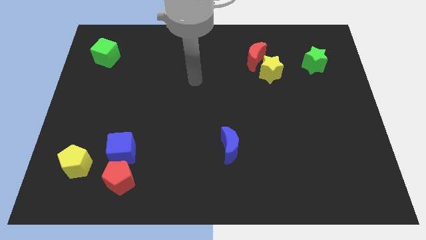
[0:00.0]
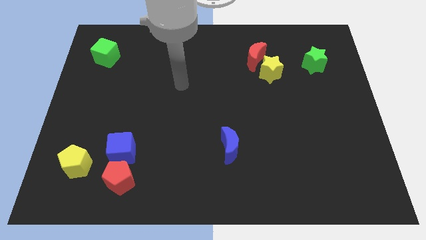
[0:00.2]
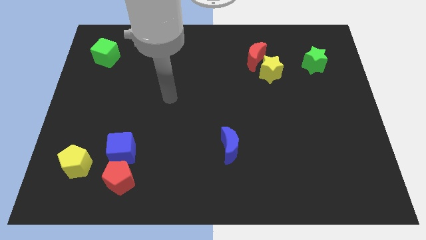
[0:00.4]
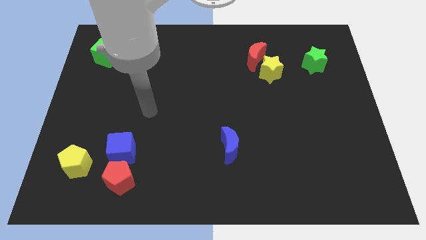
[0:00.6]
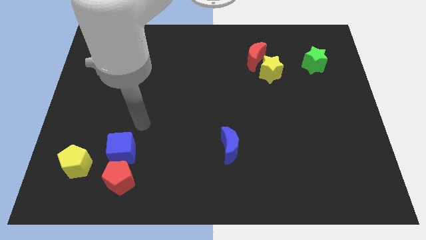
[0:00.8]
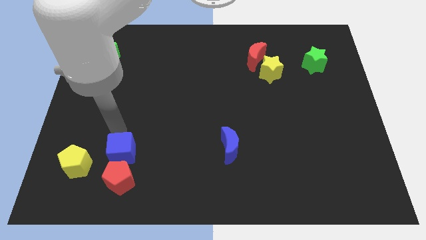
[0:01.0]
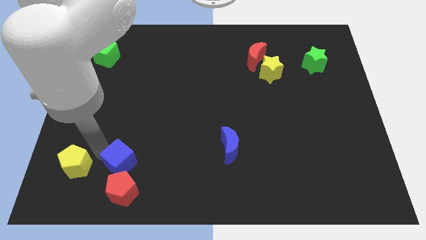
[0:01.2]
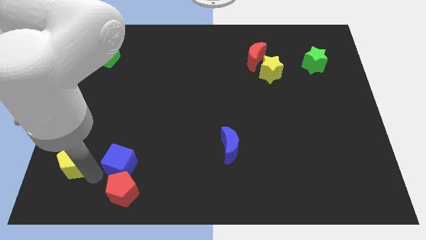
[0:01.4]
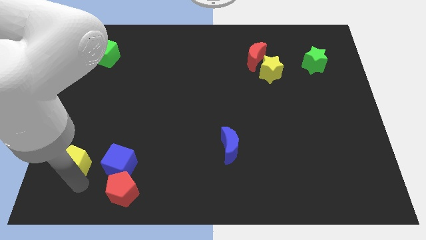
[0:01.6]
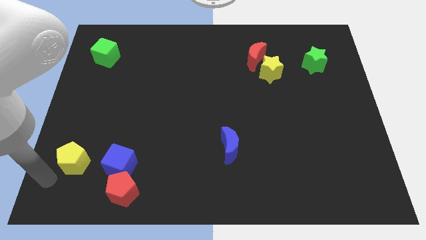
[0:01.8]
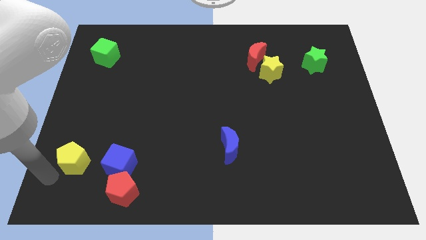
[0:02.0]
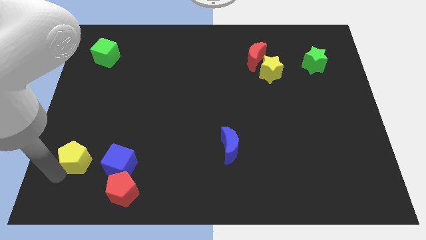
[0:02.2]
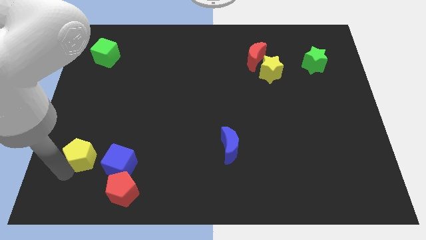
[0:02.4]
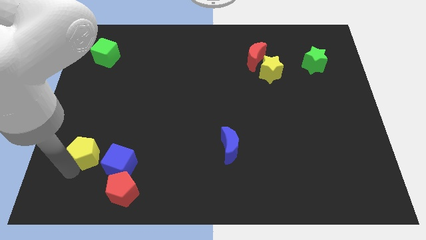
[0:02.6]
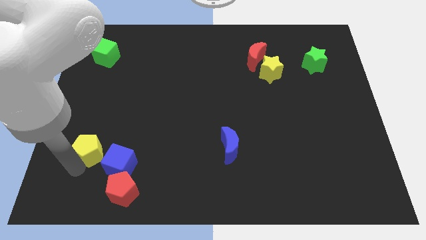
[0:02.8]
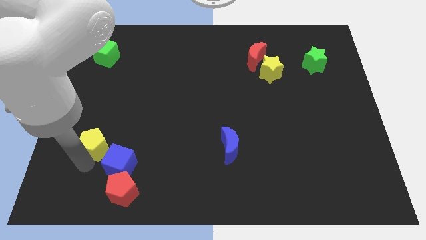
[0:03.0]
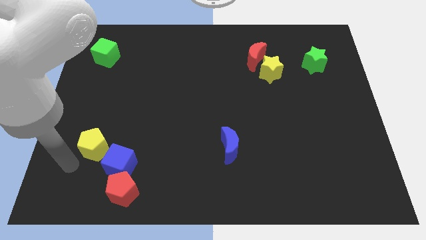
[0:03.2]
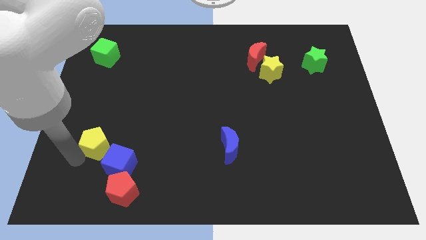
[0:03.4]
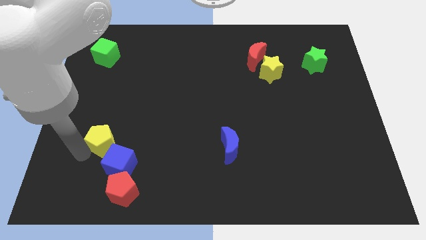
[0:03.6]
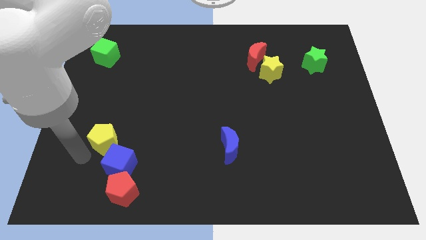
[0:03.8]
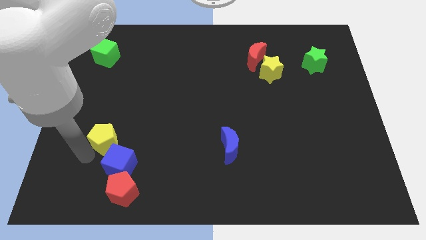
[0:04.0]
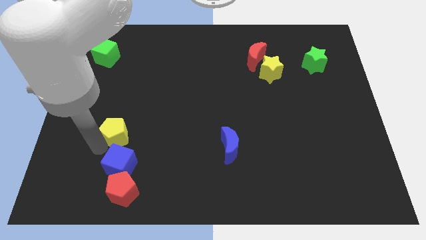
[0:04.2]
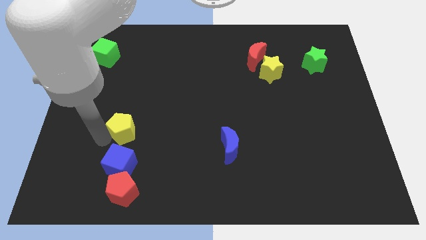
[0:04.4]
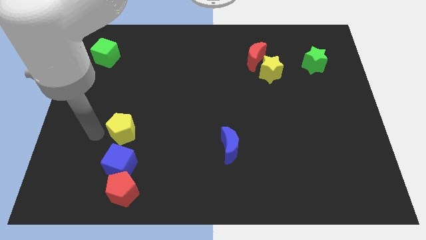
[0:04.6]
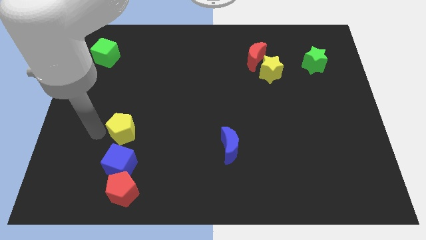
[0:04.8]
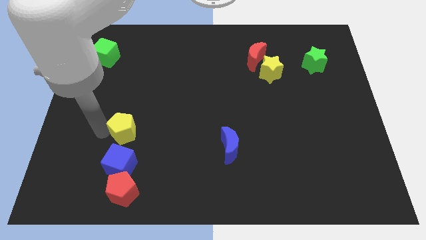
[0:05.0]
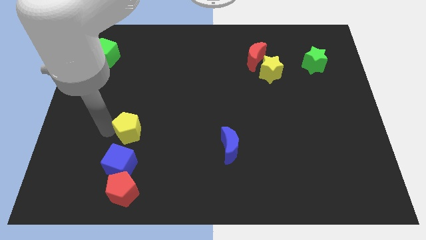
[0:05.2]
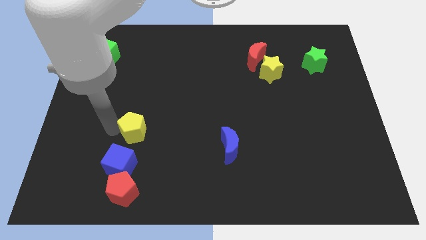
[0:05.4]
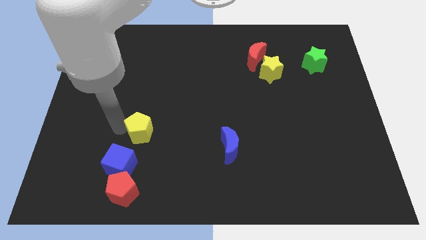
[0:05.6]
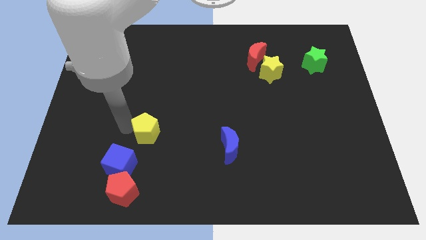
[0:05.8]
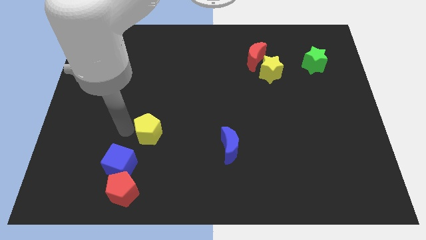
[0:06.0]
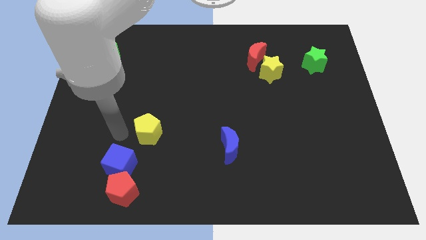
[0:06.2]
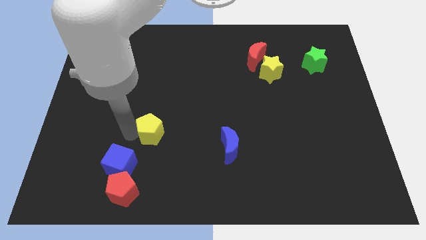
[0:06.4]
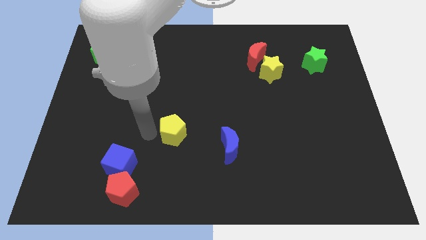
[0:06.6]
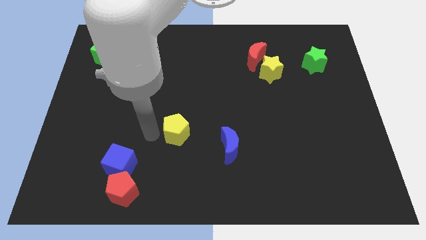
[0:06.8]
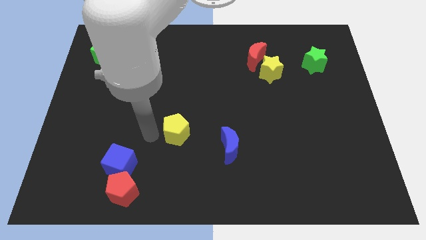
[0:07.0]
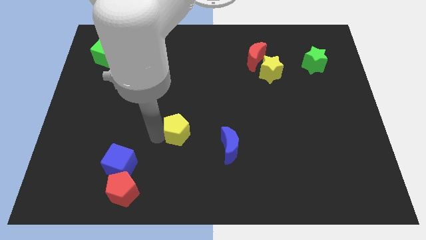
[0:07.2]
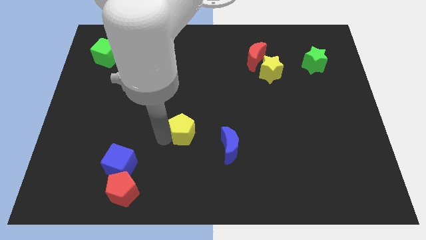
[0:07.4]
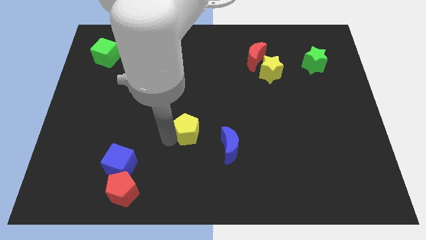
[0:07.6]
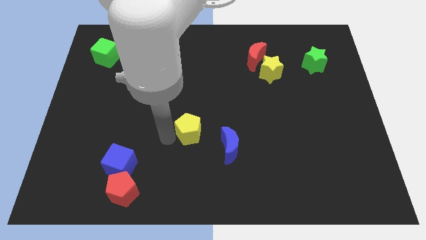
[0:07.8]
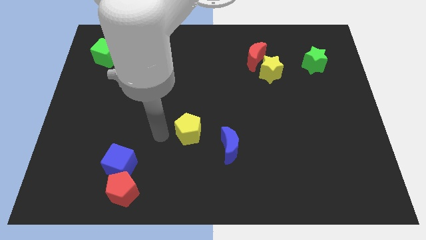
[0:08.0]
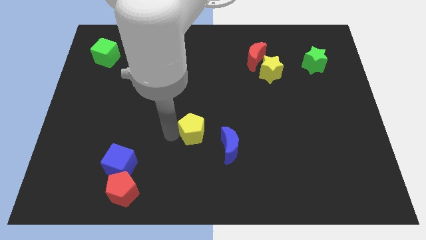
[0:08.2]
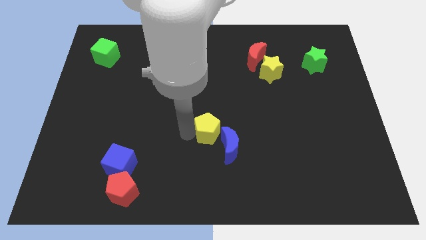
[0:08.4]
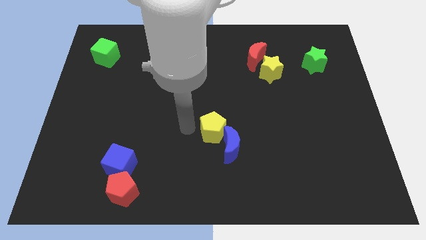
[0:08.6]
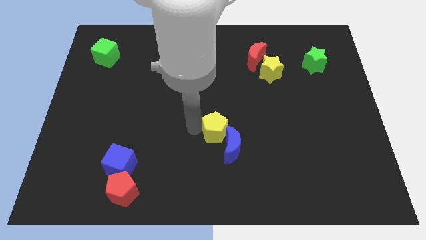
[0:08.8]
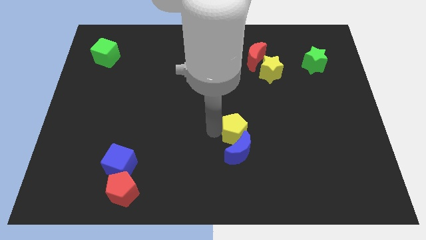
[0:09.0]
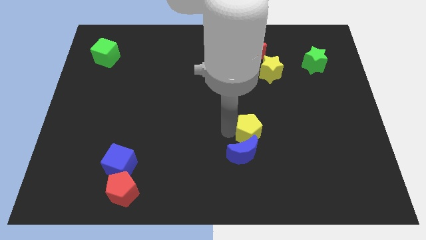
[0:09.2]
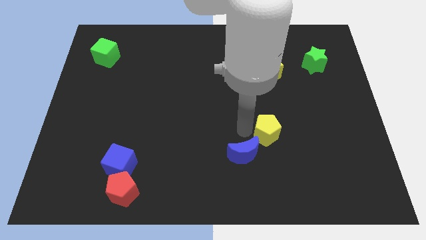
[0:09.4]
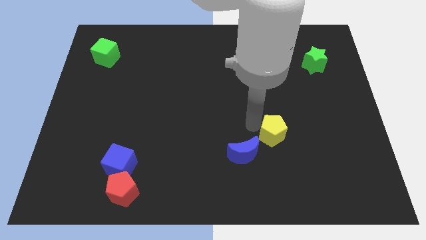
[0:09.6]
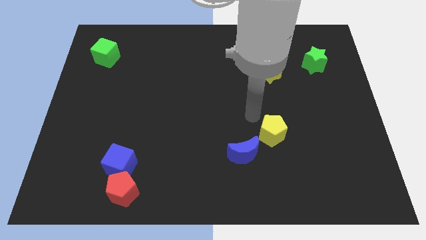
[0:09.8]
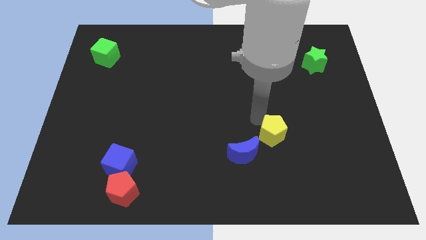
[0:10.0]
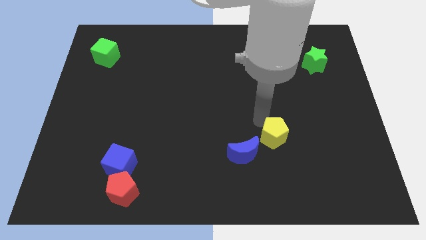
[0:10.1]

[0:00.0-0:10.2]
push the yellow pentagon right of the blue moon
